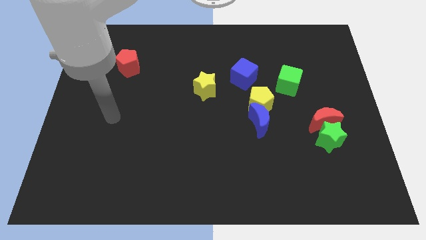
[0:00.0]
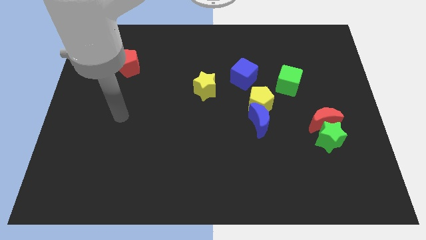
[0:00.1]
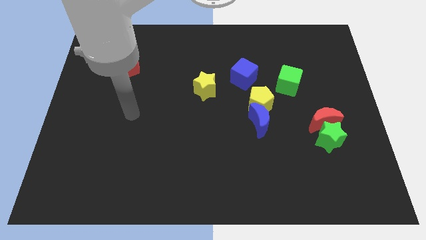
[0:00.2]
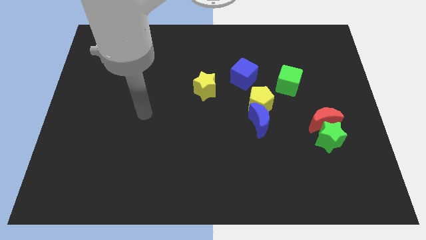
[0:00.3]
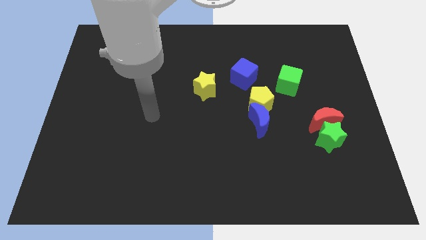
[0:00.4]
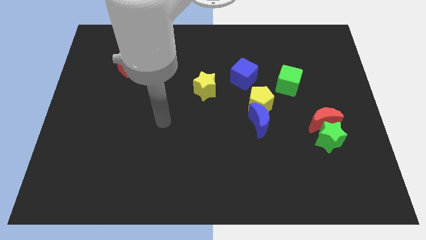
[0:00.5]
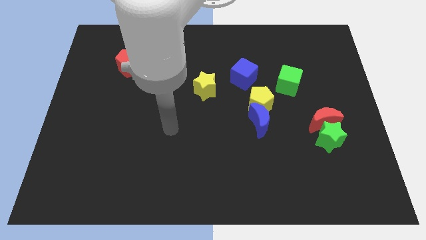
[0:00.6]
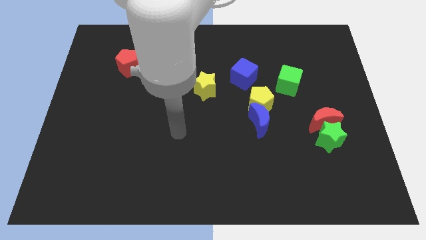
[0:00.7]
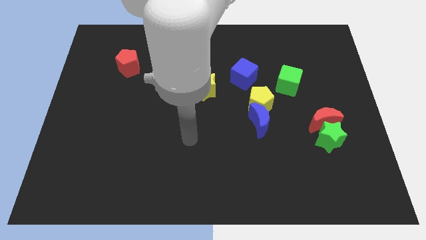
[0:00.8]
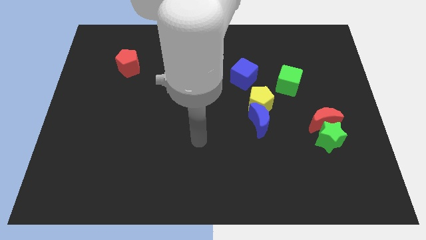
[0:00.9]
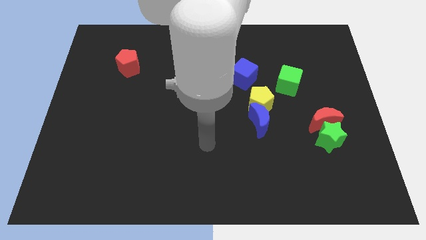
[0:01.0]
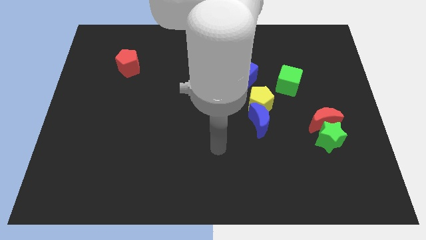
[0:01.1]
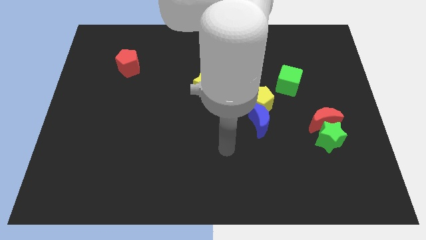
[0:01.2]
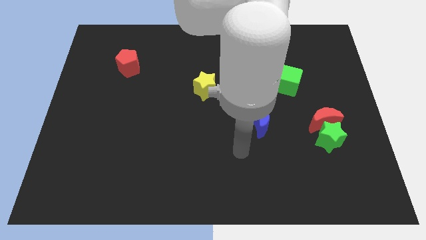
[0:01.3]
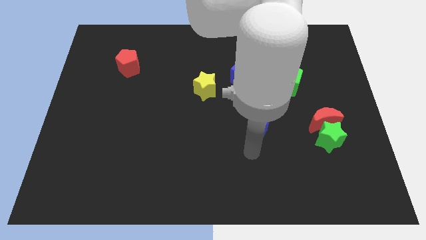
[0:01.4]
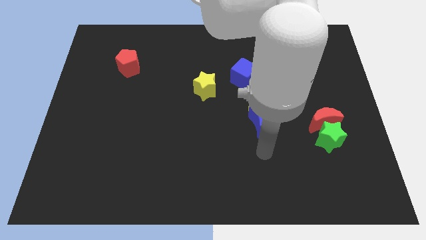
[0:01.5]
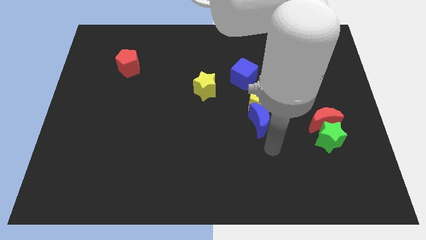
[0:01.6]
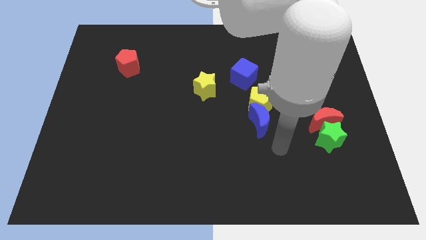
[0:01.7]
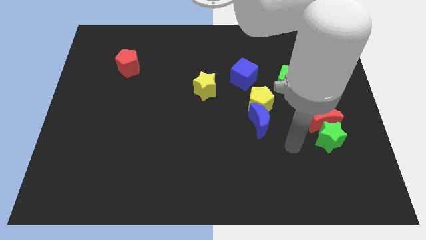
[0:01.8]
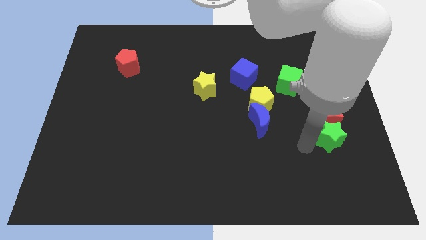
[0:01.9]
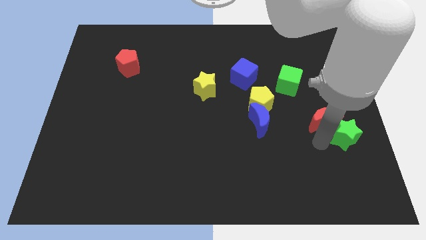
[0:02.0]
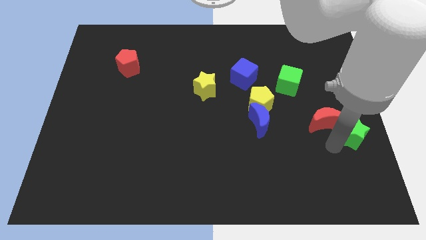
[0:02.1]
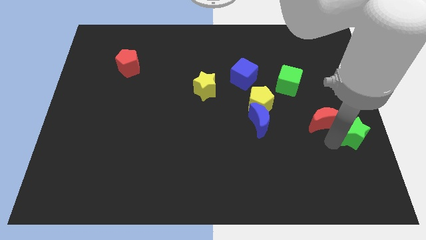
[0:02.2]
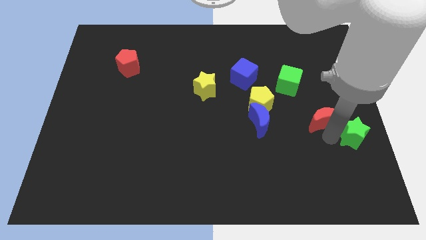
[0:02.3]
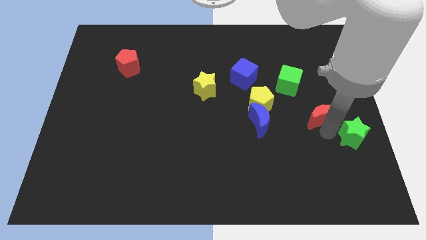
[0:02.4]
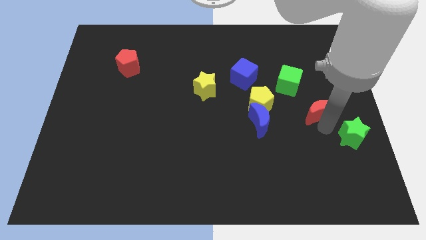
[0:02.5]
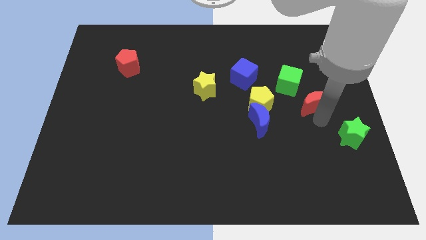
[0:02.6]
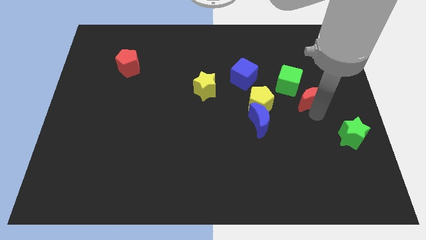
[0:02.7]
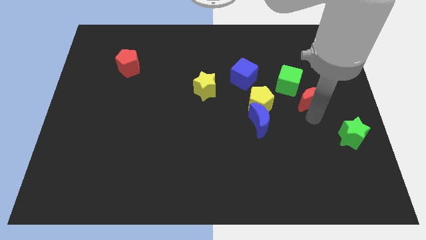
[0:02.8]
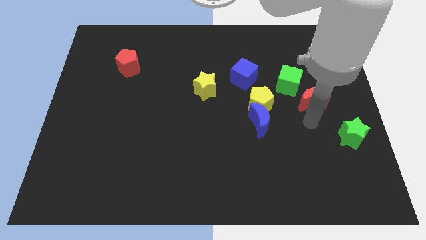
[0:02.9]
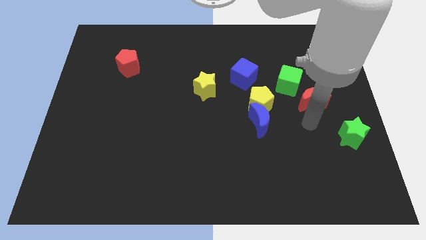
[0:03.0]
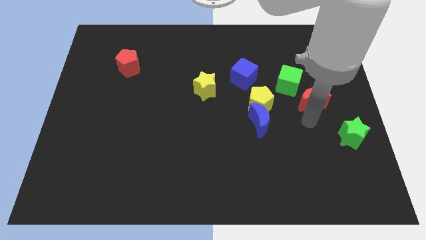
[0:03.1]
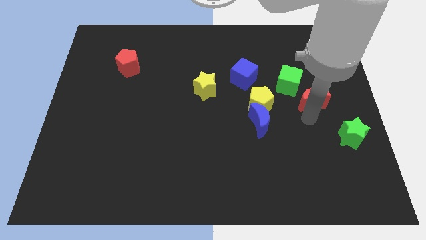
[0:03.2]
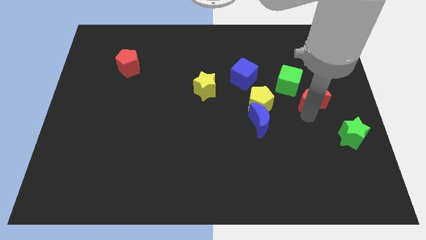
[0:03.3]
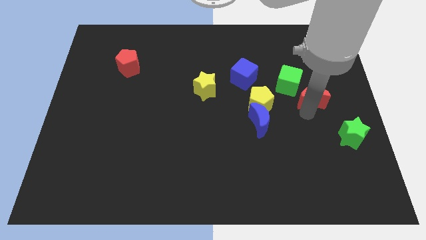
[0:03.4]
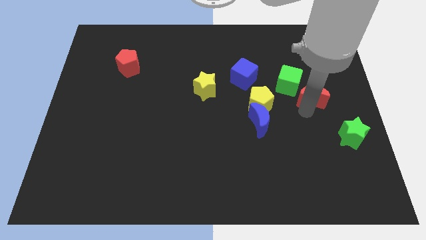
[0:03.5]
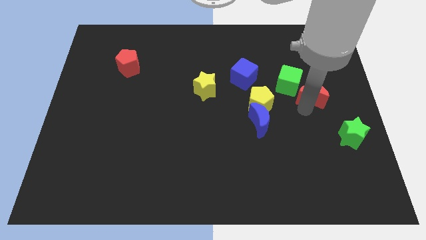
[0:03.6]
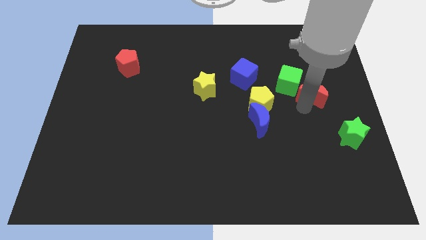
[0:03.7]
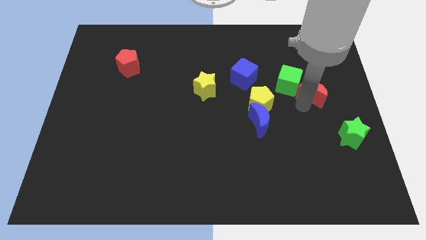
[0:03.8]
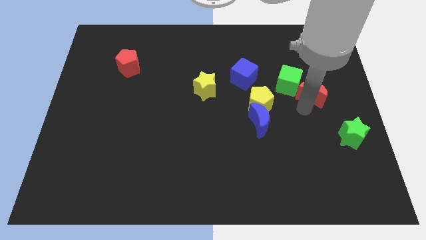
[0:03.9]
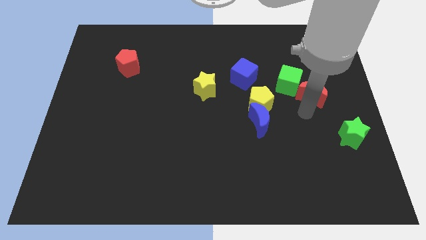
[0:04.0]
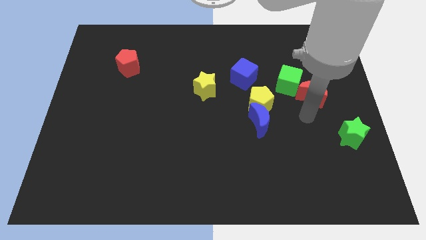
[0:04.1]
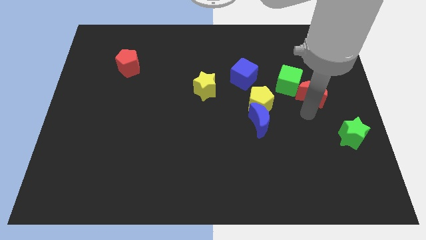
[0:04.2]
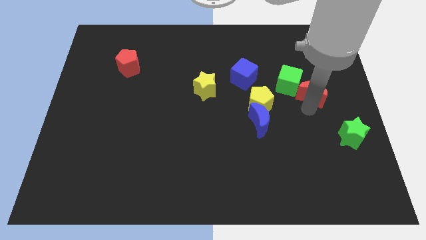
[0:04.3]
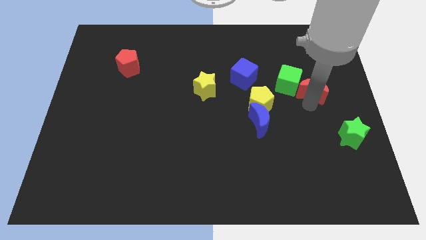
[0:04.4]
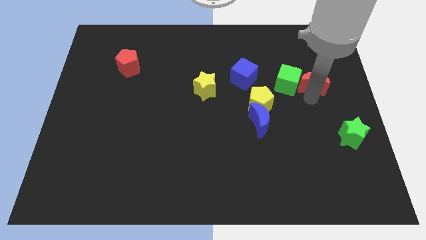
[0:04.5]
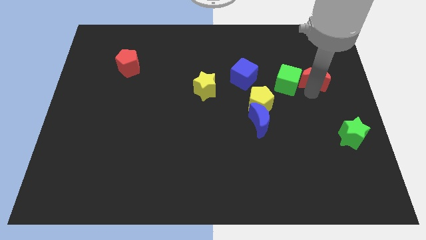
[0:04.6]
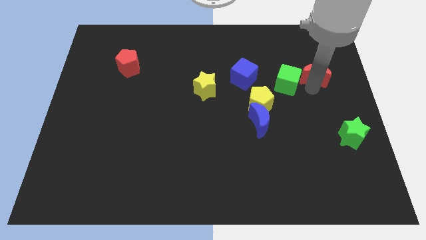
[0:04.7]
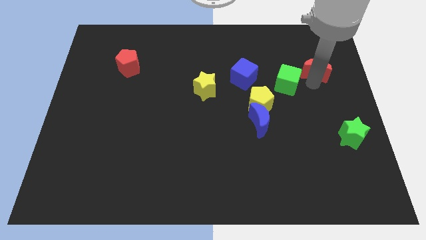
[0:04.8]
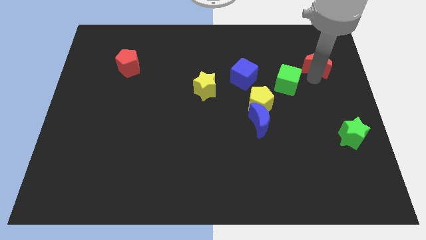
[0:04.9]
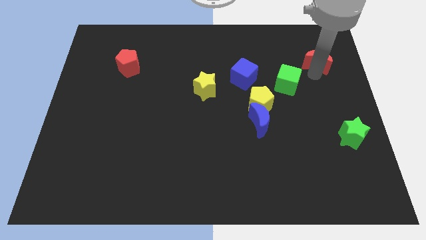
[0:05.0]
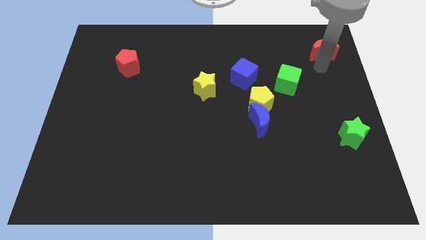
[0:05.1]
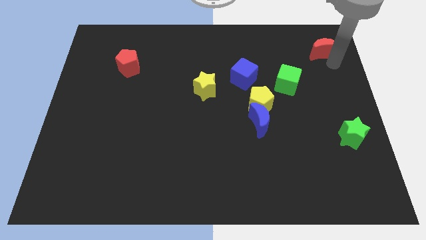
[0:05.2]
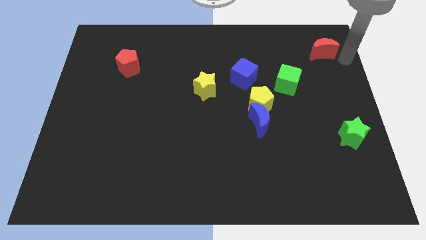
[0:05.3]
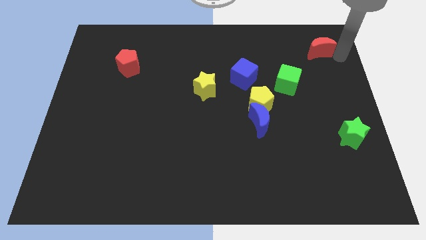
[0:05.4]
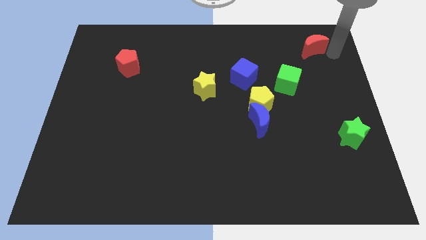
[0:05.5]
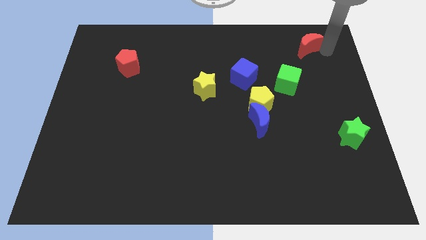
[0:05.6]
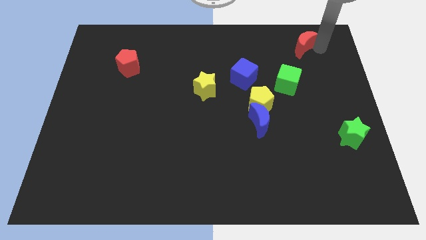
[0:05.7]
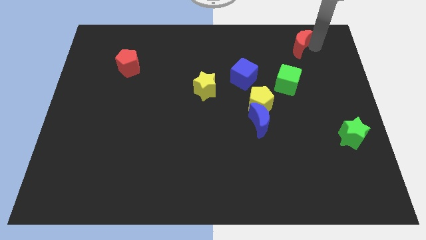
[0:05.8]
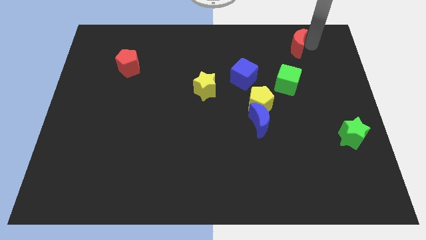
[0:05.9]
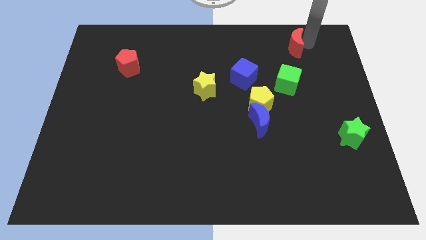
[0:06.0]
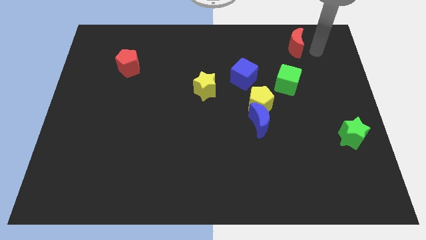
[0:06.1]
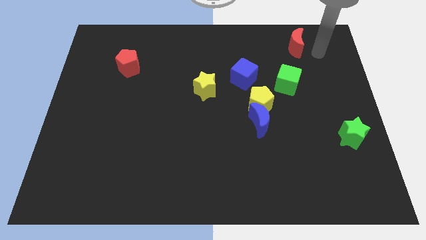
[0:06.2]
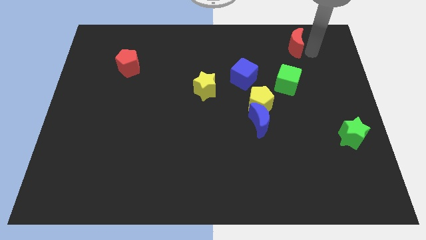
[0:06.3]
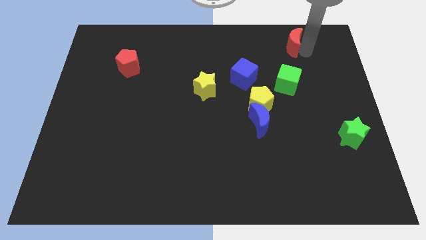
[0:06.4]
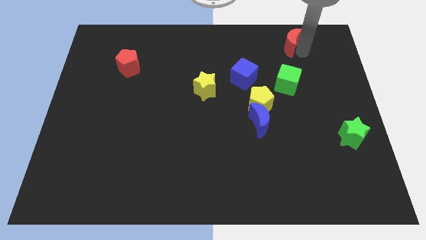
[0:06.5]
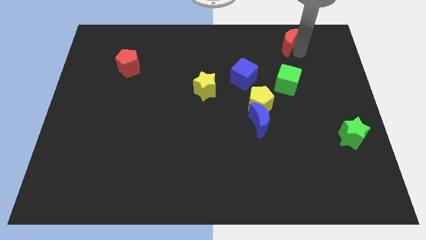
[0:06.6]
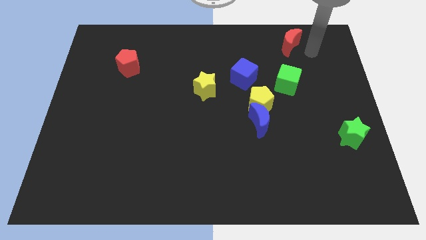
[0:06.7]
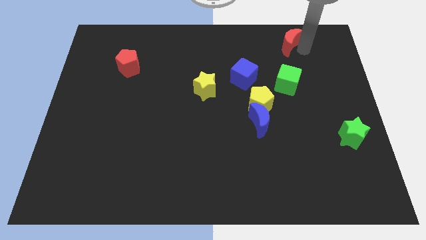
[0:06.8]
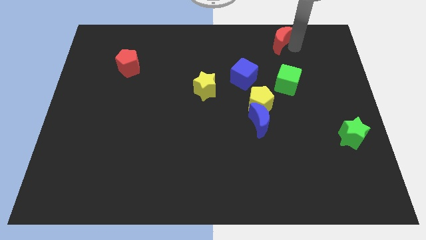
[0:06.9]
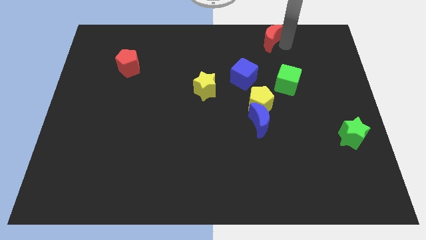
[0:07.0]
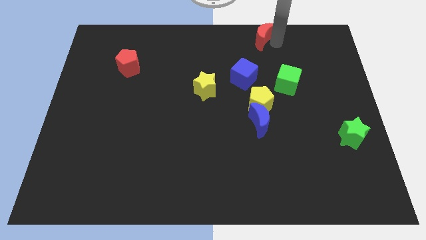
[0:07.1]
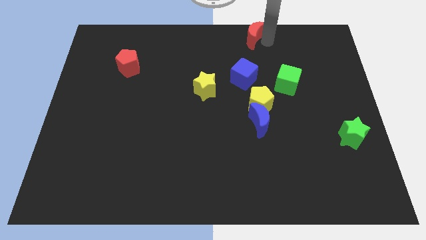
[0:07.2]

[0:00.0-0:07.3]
push the red moon to the top

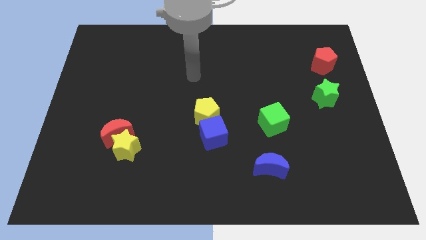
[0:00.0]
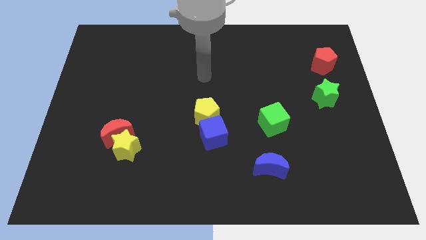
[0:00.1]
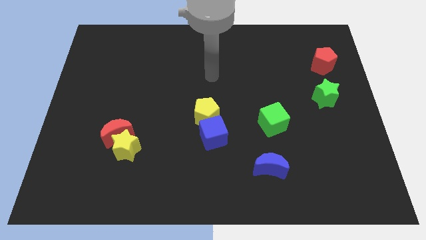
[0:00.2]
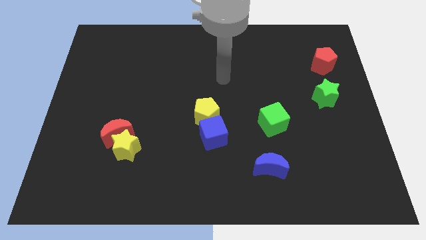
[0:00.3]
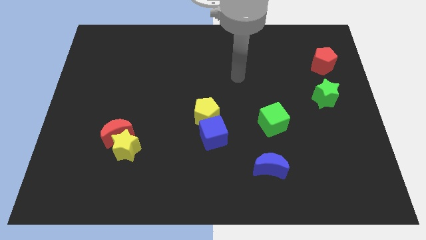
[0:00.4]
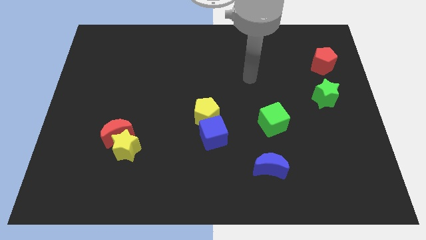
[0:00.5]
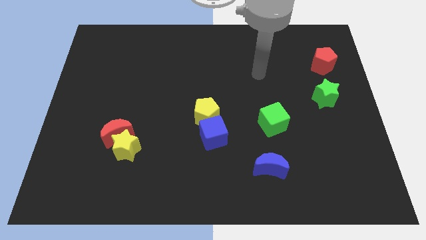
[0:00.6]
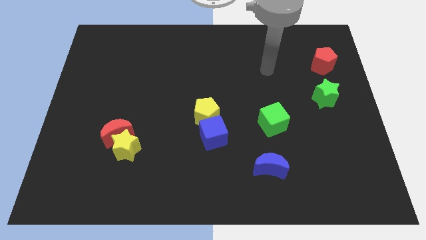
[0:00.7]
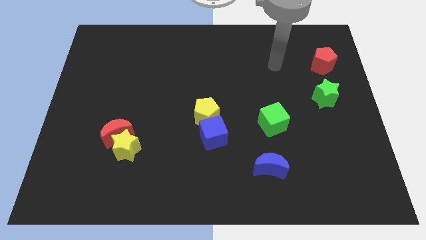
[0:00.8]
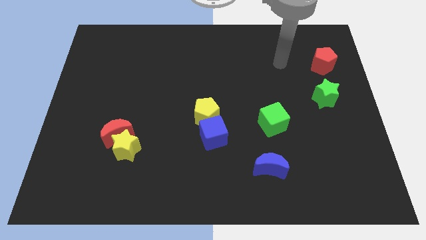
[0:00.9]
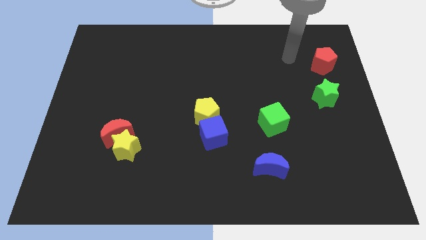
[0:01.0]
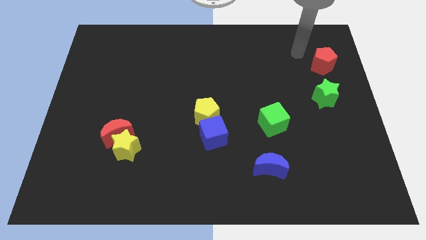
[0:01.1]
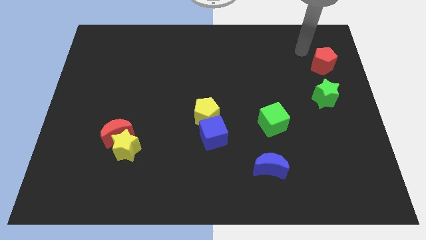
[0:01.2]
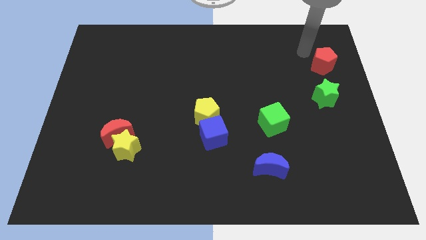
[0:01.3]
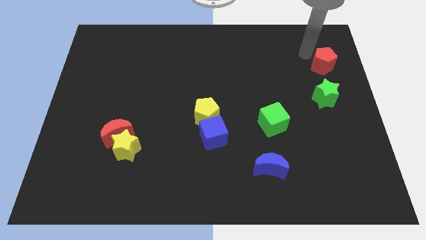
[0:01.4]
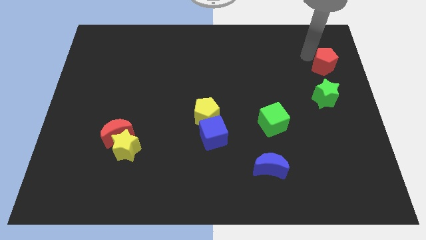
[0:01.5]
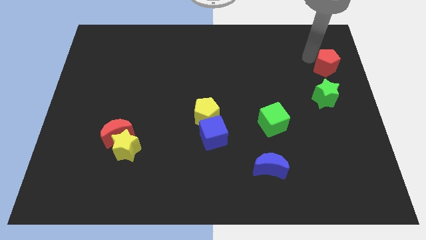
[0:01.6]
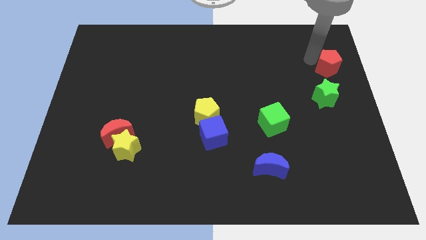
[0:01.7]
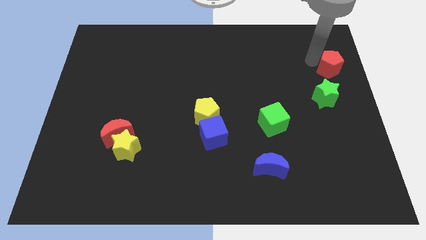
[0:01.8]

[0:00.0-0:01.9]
move the red pentagon to the center right
